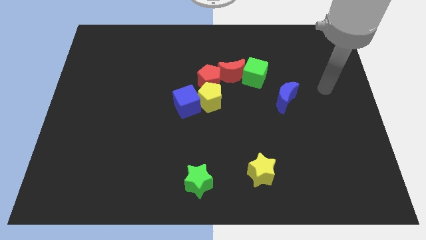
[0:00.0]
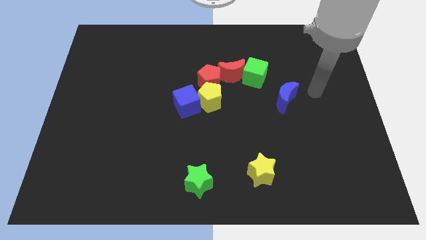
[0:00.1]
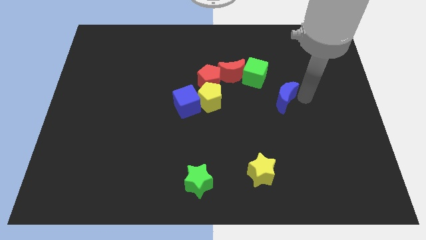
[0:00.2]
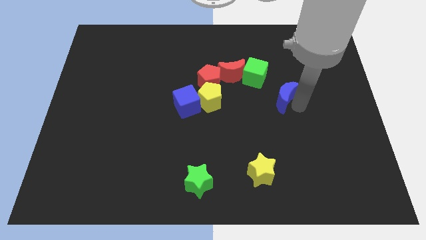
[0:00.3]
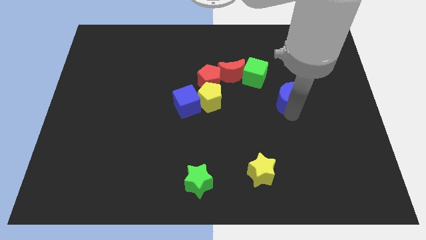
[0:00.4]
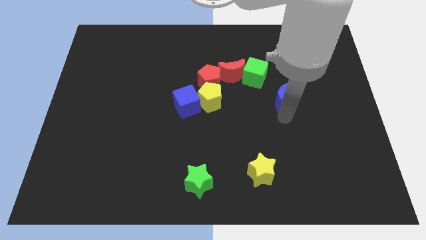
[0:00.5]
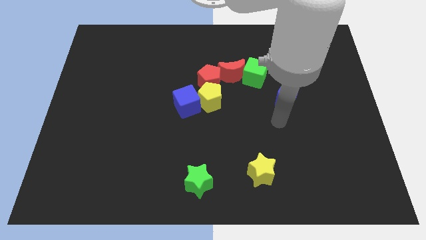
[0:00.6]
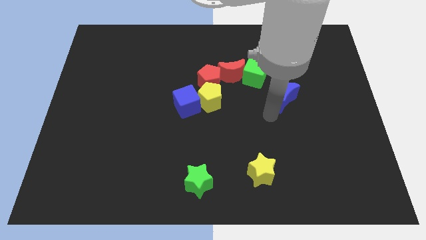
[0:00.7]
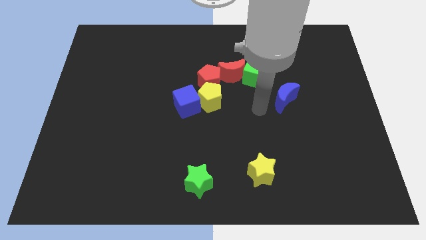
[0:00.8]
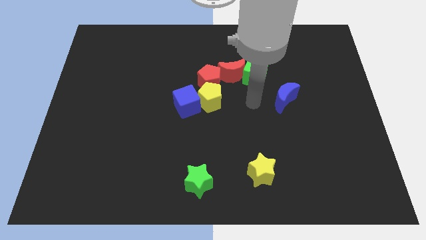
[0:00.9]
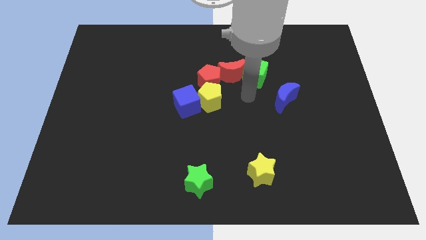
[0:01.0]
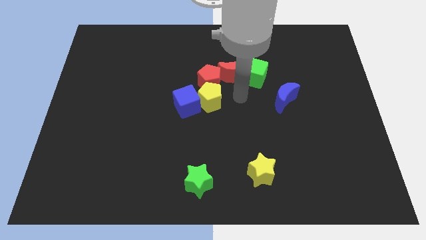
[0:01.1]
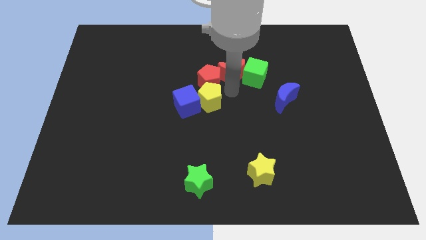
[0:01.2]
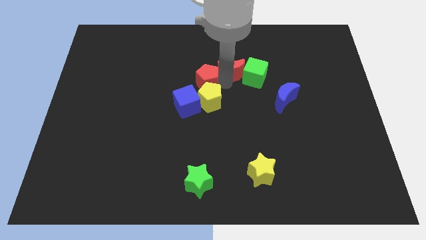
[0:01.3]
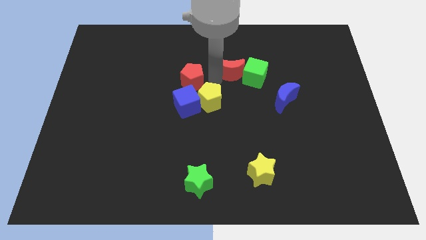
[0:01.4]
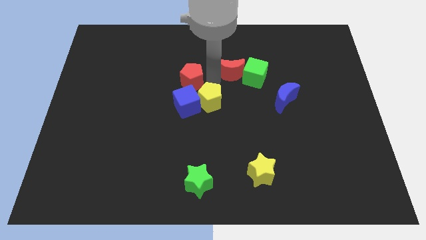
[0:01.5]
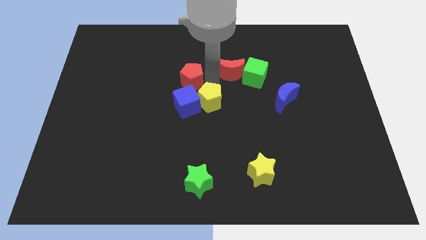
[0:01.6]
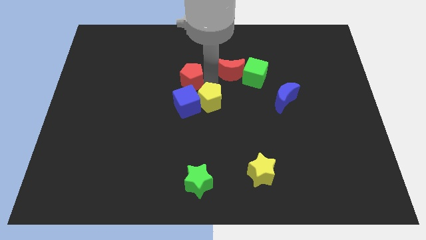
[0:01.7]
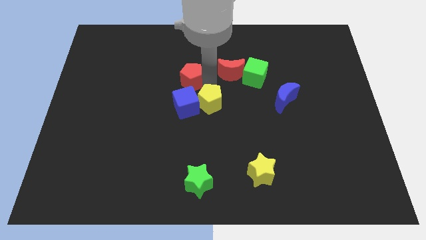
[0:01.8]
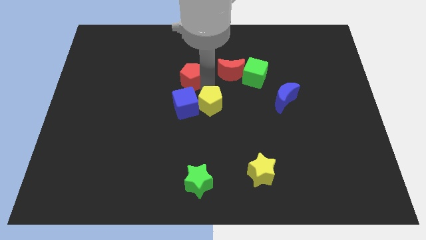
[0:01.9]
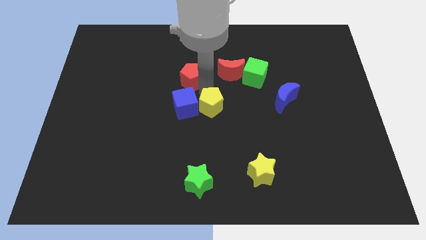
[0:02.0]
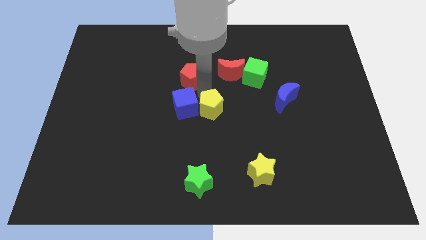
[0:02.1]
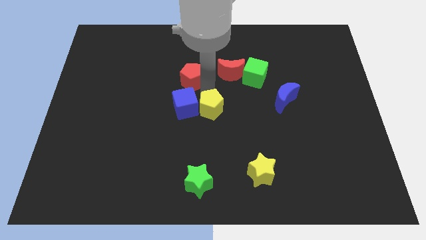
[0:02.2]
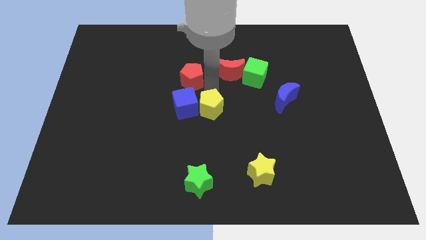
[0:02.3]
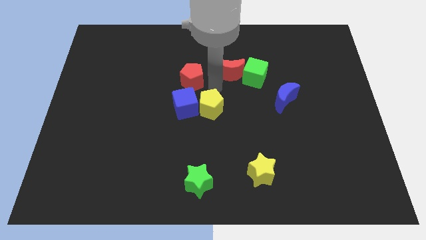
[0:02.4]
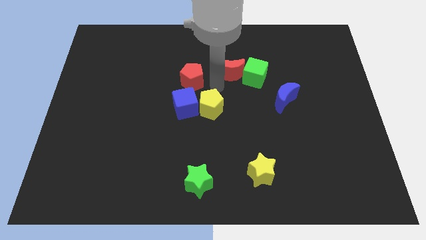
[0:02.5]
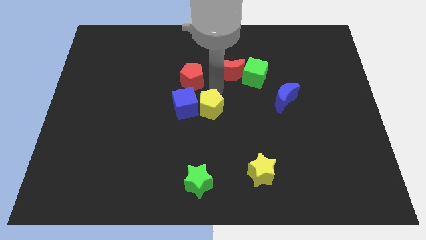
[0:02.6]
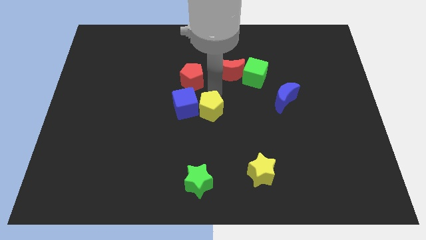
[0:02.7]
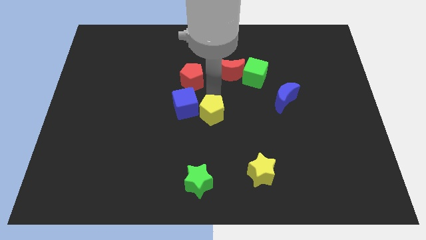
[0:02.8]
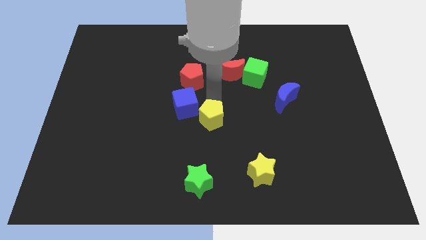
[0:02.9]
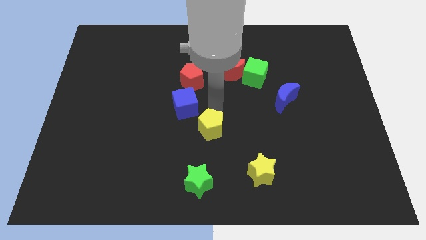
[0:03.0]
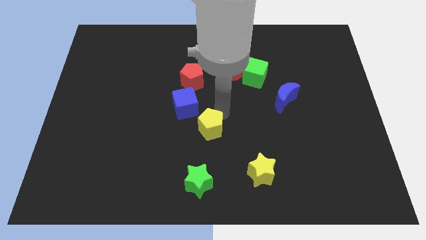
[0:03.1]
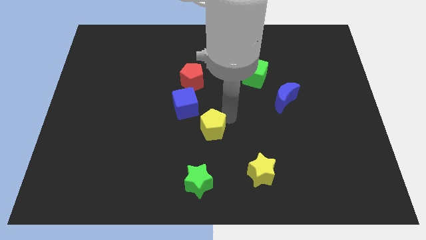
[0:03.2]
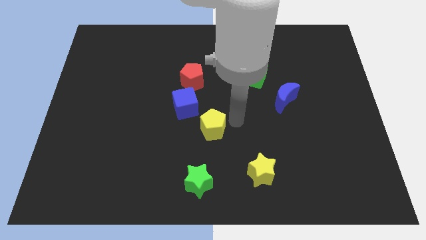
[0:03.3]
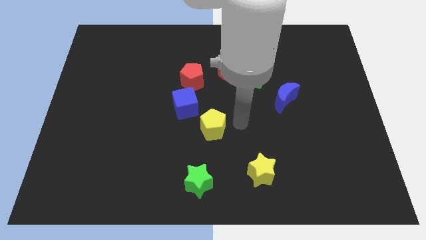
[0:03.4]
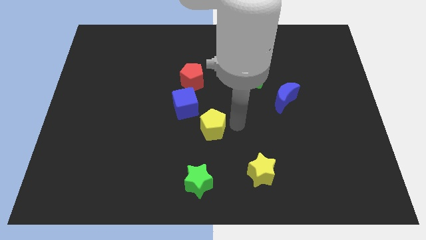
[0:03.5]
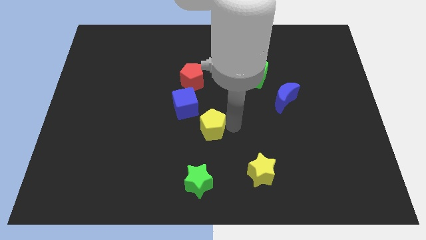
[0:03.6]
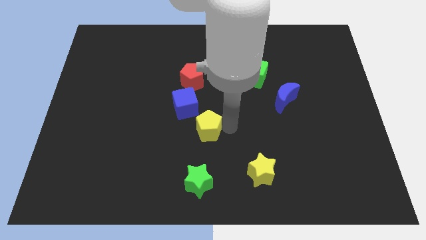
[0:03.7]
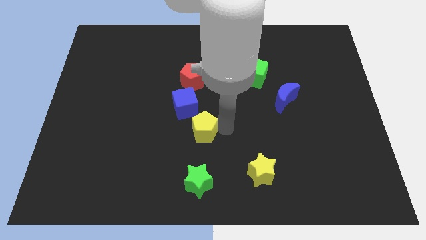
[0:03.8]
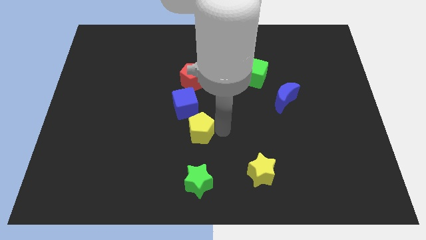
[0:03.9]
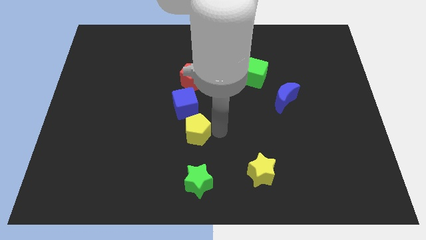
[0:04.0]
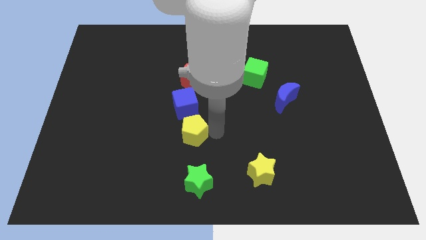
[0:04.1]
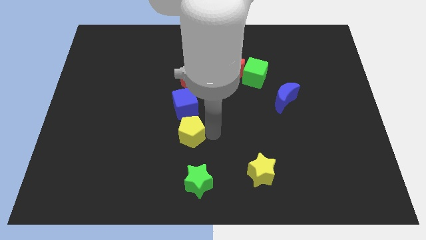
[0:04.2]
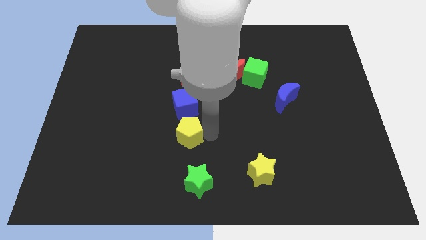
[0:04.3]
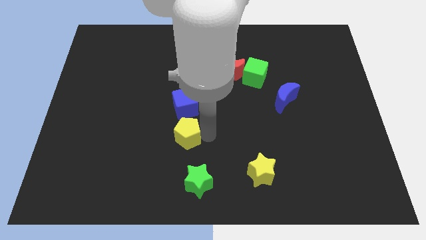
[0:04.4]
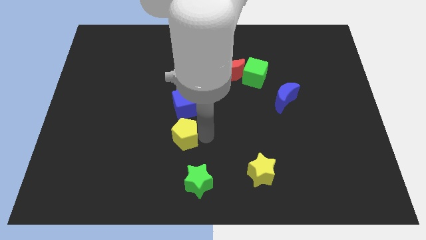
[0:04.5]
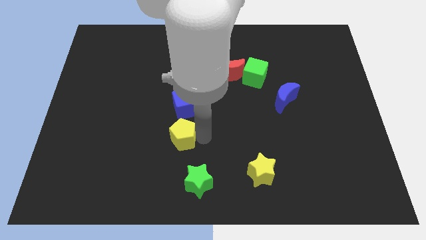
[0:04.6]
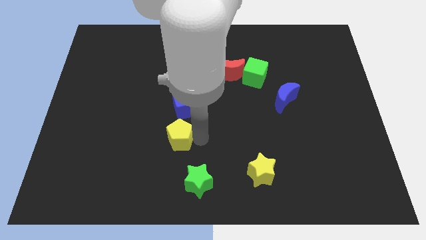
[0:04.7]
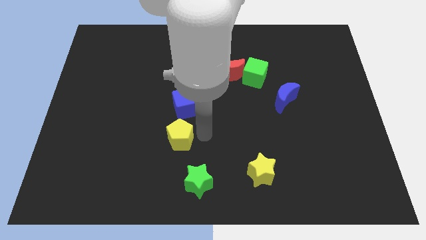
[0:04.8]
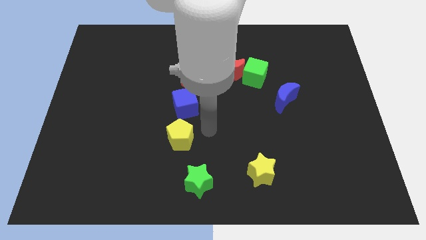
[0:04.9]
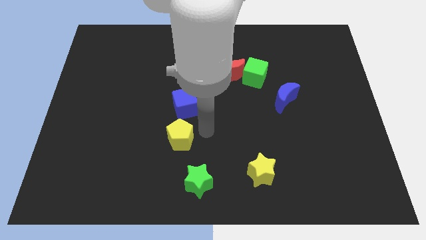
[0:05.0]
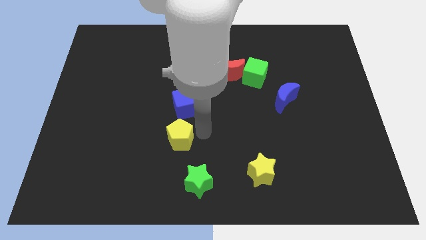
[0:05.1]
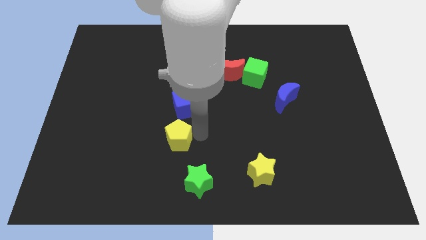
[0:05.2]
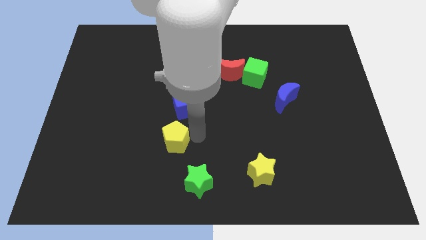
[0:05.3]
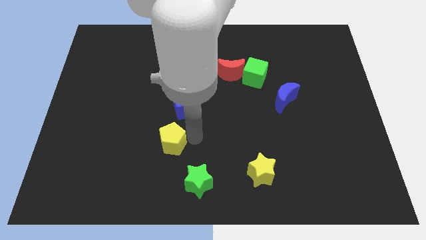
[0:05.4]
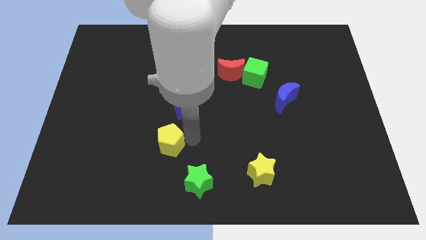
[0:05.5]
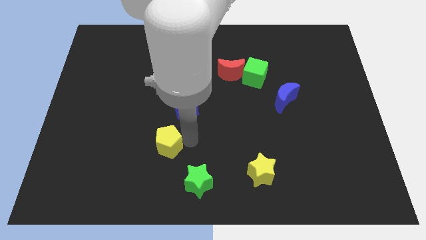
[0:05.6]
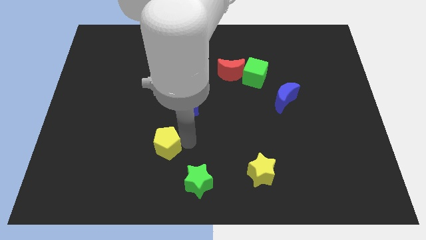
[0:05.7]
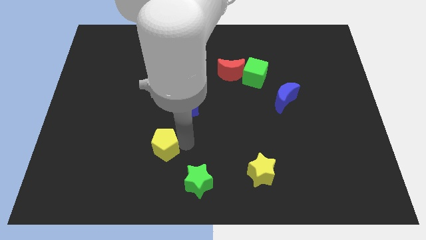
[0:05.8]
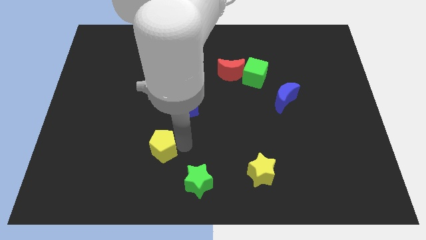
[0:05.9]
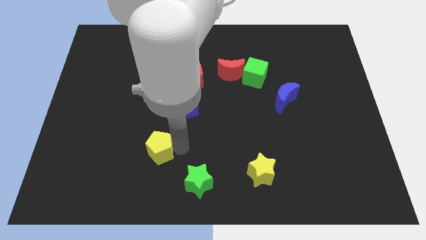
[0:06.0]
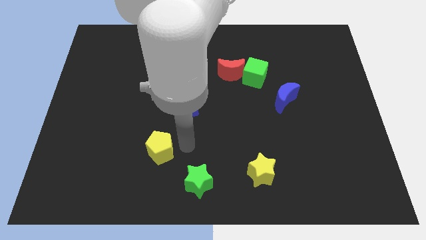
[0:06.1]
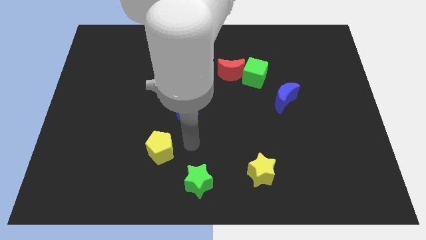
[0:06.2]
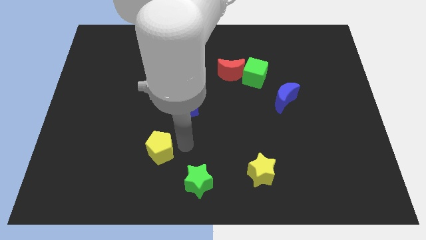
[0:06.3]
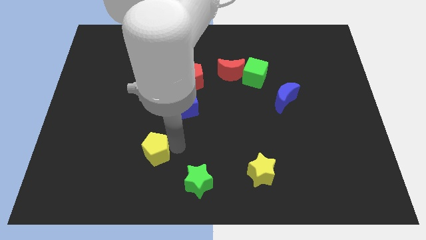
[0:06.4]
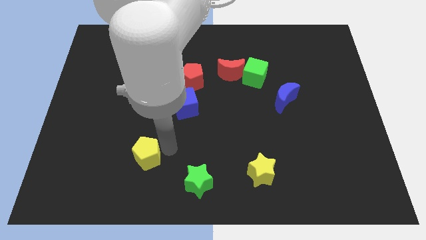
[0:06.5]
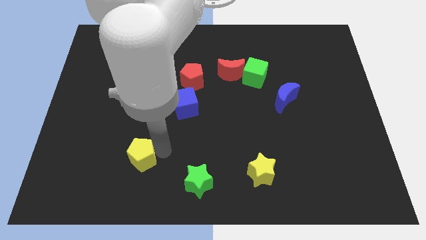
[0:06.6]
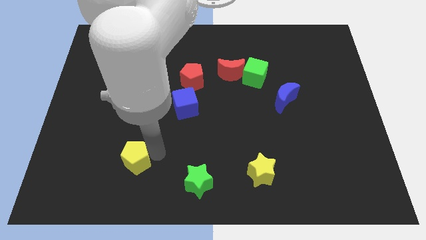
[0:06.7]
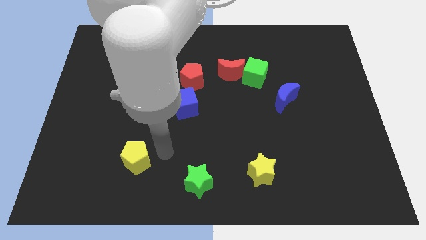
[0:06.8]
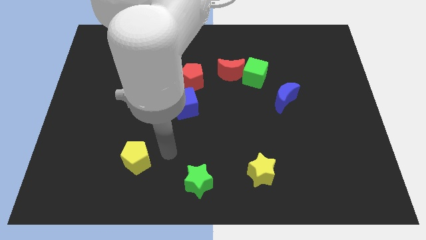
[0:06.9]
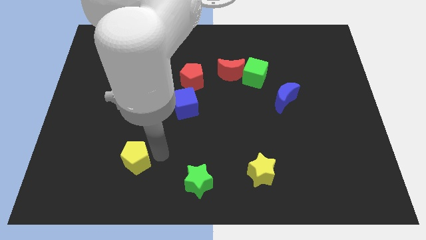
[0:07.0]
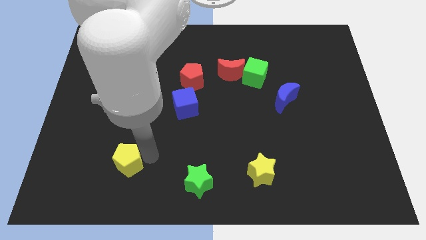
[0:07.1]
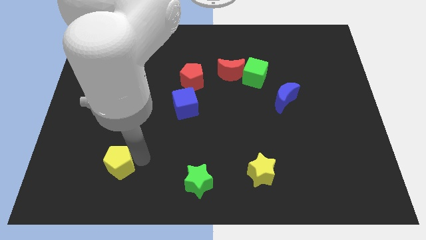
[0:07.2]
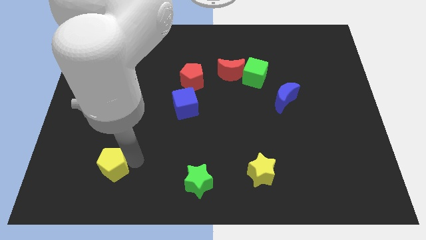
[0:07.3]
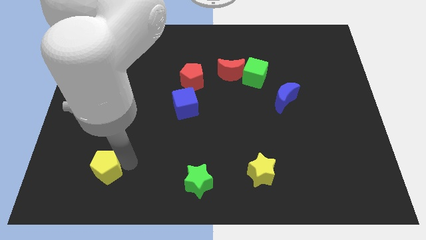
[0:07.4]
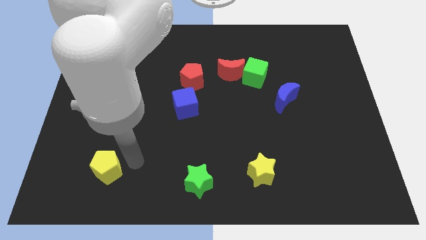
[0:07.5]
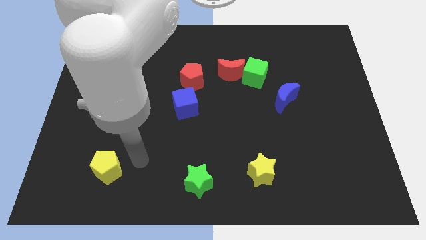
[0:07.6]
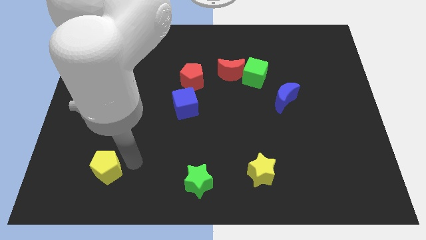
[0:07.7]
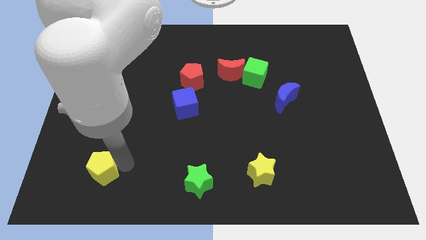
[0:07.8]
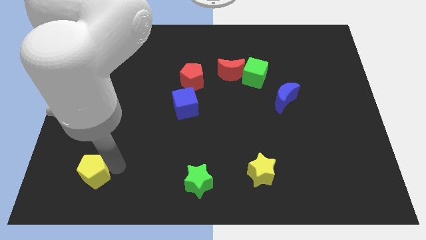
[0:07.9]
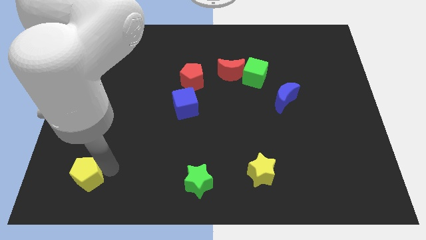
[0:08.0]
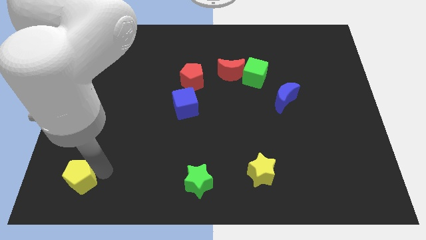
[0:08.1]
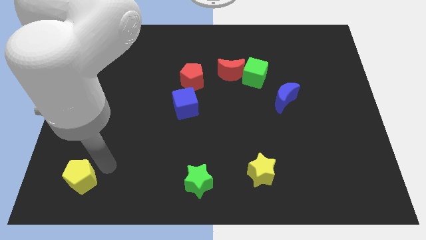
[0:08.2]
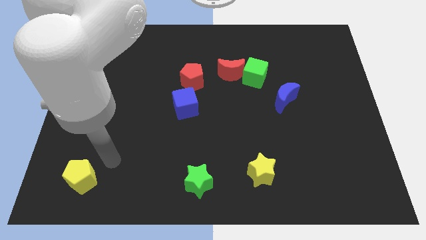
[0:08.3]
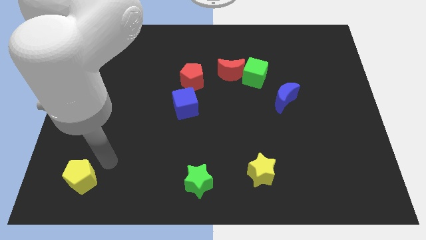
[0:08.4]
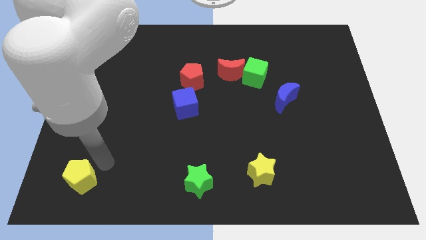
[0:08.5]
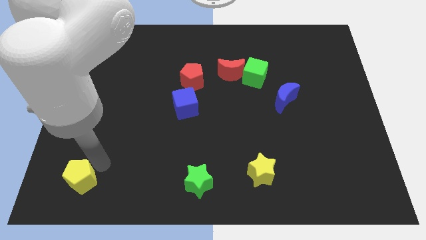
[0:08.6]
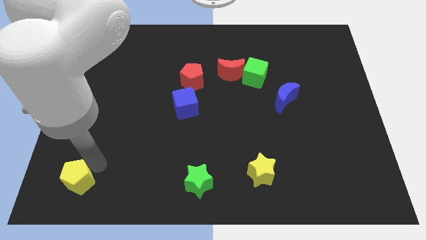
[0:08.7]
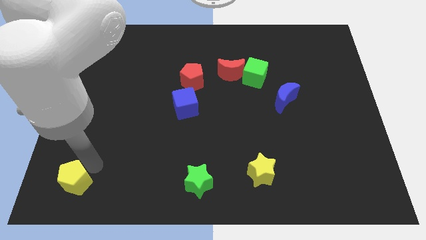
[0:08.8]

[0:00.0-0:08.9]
push the yellow pentagon to the lower left corner
